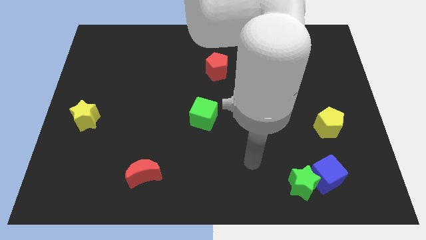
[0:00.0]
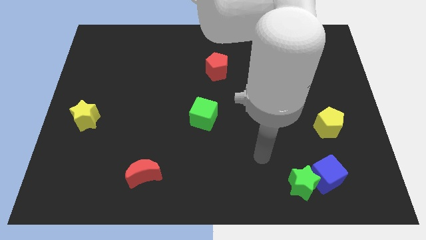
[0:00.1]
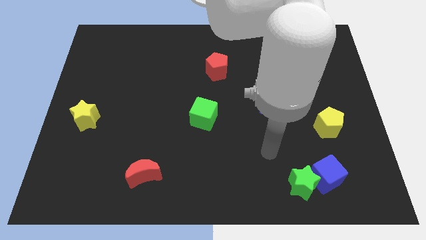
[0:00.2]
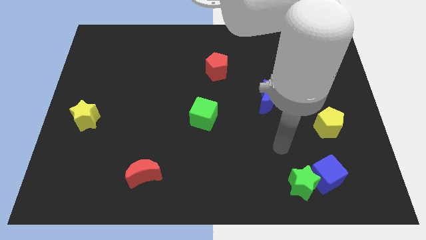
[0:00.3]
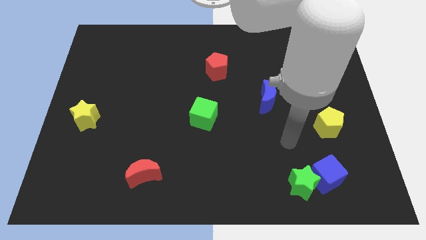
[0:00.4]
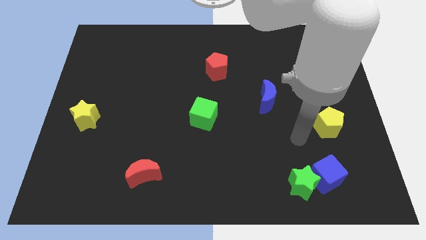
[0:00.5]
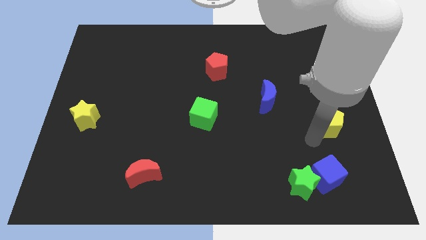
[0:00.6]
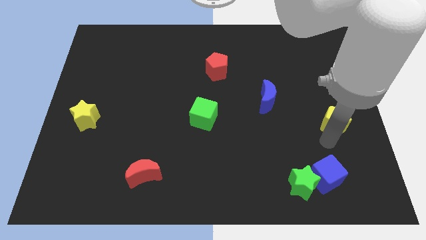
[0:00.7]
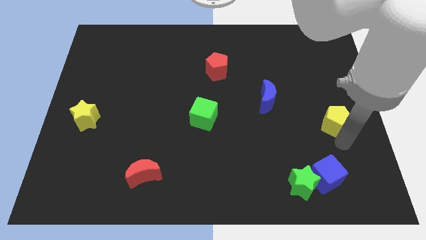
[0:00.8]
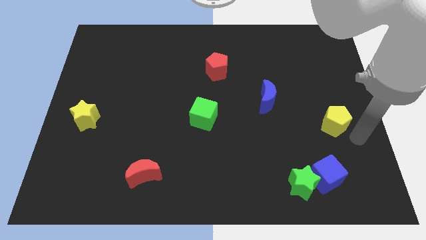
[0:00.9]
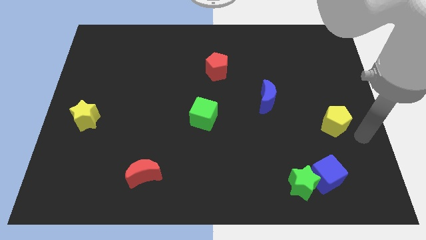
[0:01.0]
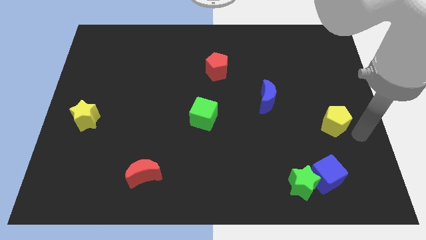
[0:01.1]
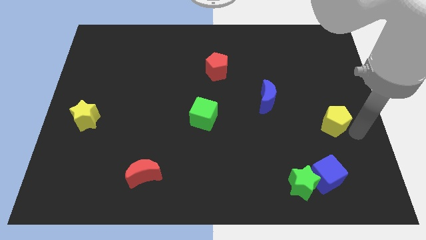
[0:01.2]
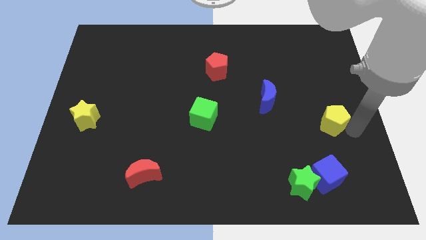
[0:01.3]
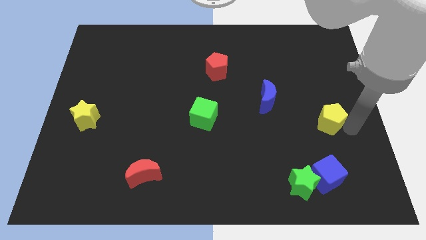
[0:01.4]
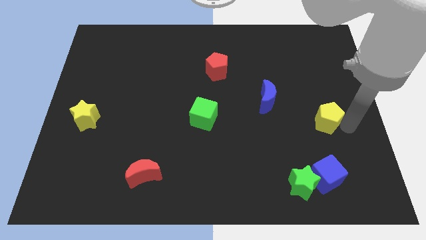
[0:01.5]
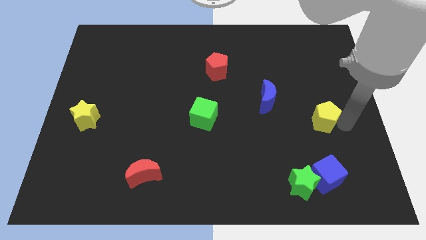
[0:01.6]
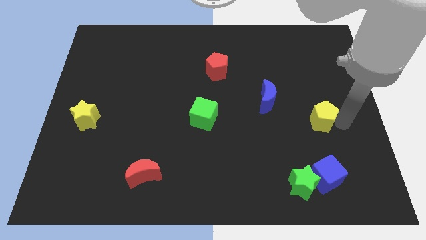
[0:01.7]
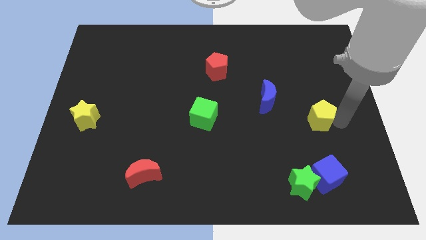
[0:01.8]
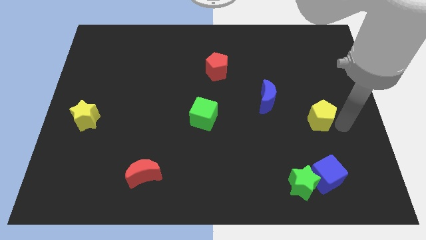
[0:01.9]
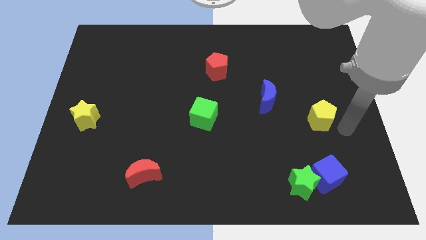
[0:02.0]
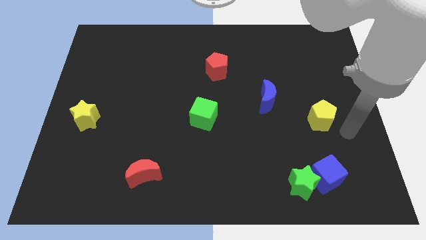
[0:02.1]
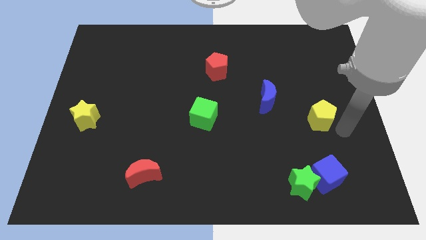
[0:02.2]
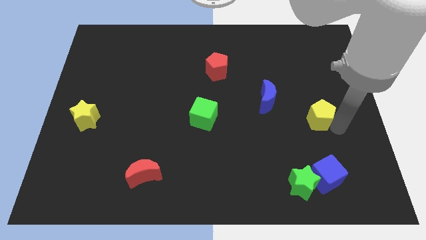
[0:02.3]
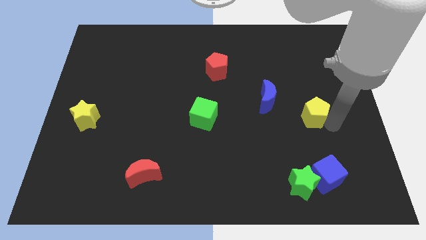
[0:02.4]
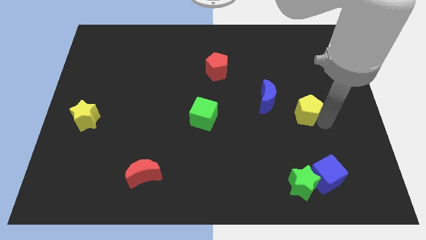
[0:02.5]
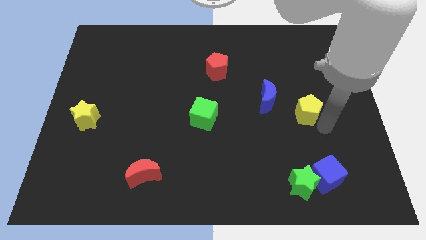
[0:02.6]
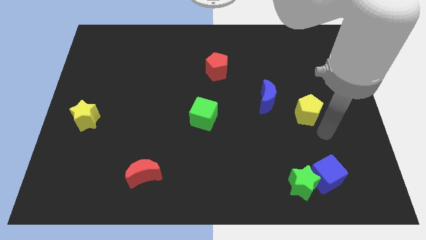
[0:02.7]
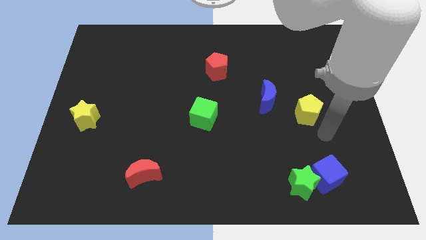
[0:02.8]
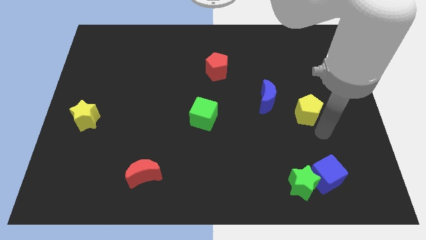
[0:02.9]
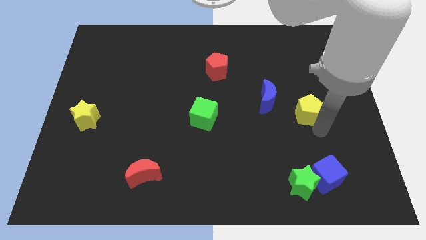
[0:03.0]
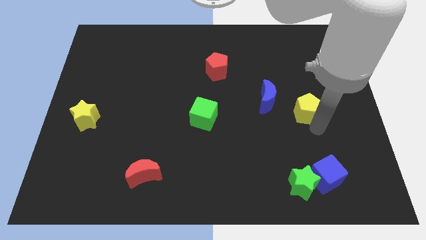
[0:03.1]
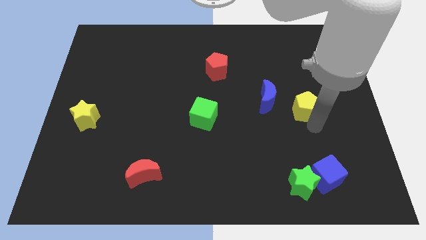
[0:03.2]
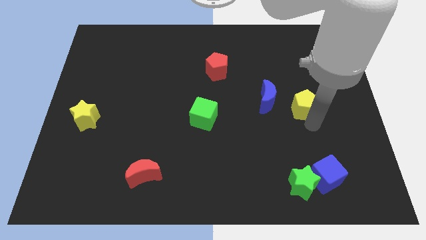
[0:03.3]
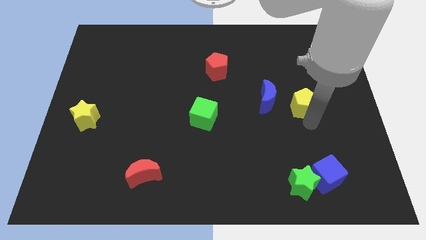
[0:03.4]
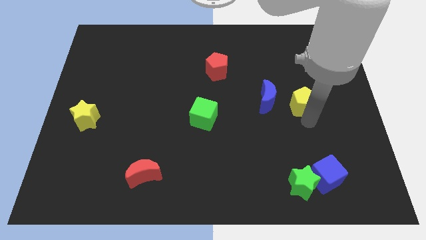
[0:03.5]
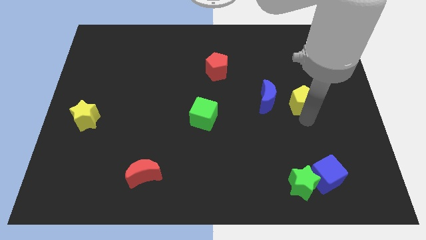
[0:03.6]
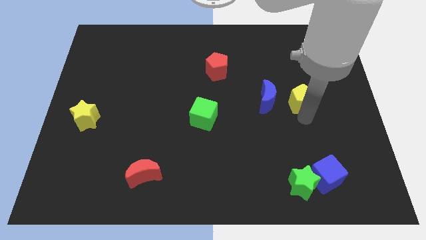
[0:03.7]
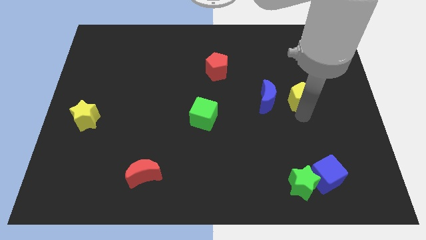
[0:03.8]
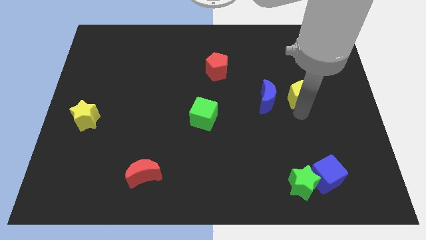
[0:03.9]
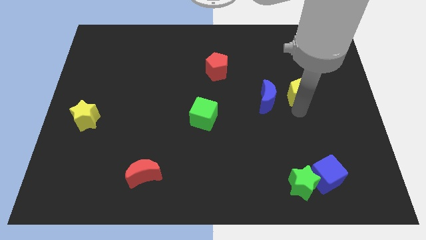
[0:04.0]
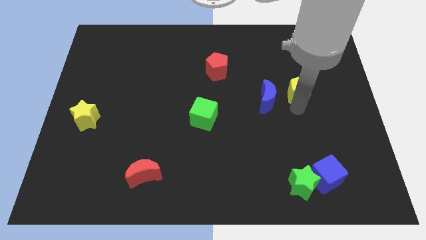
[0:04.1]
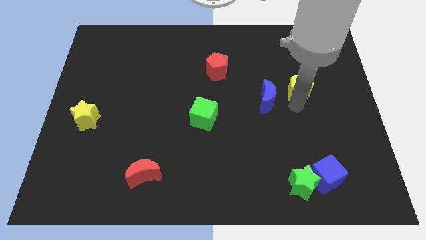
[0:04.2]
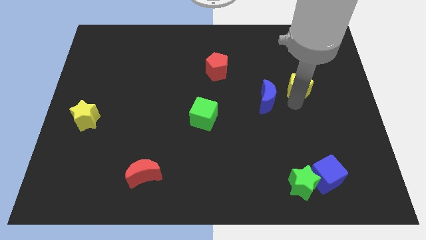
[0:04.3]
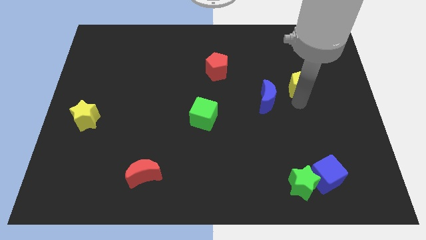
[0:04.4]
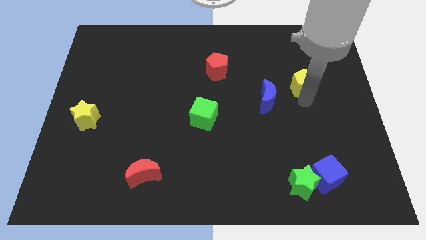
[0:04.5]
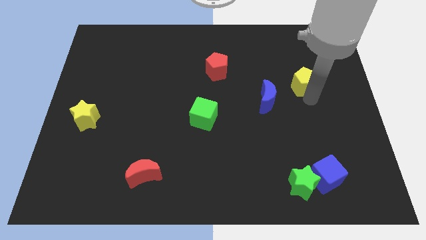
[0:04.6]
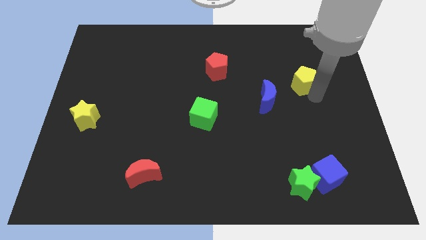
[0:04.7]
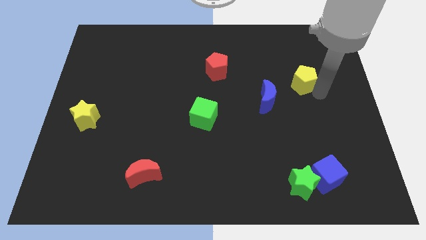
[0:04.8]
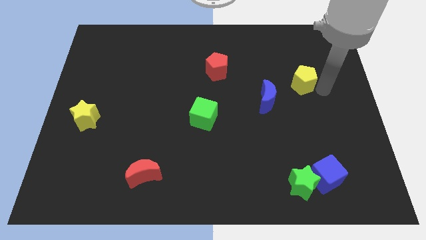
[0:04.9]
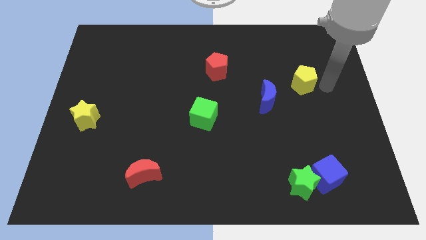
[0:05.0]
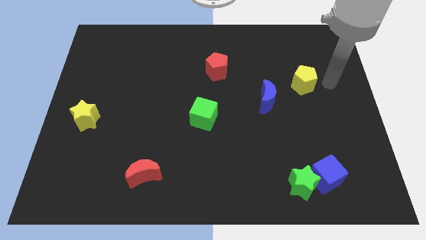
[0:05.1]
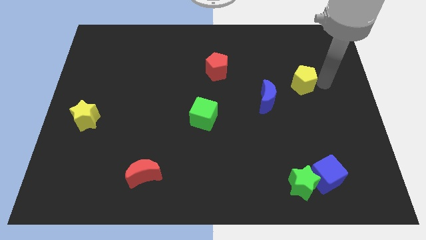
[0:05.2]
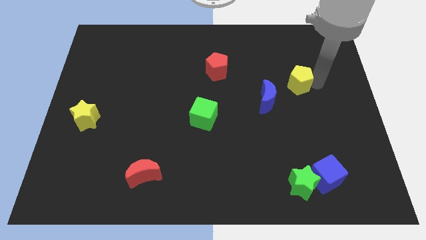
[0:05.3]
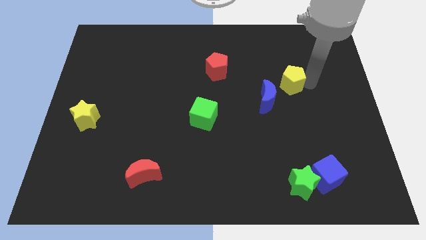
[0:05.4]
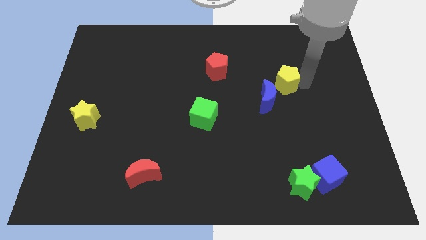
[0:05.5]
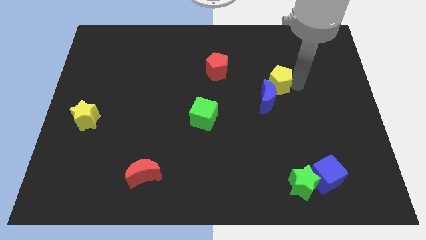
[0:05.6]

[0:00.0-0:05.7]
push the yellow pentagon to the top side of the blue moon

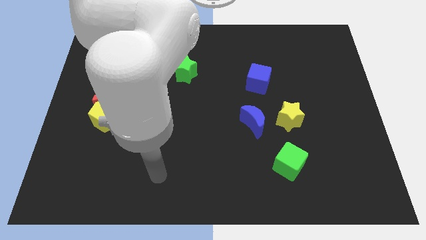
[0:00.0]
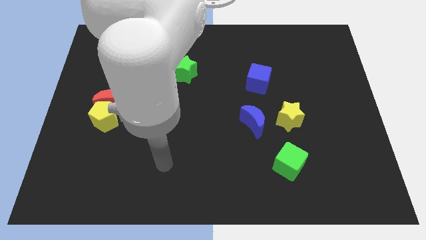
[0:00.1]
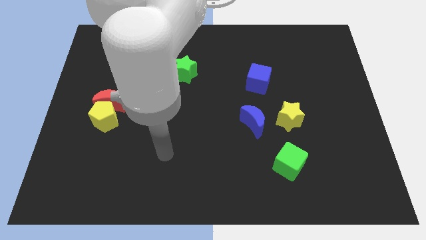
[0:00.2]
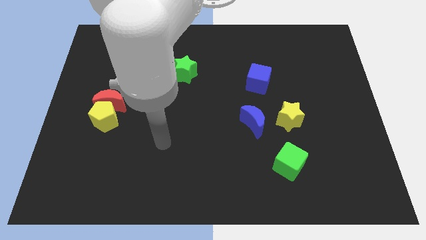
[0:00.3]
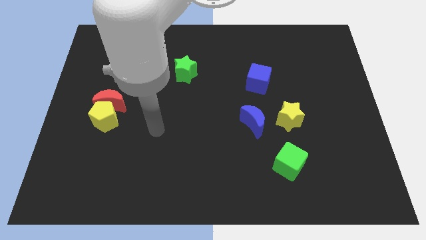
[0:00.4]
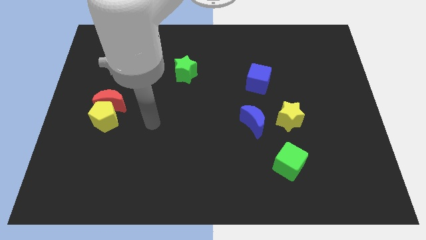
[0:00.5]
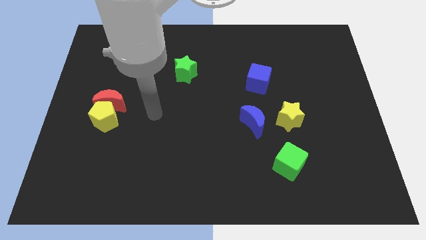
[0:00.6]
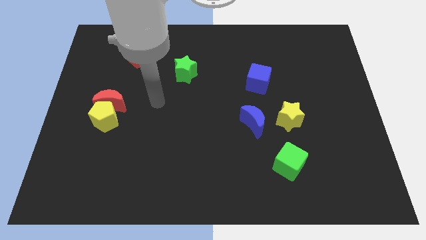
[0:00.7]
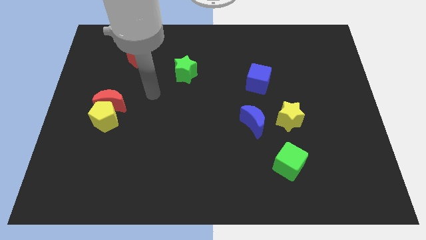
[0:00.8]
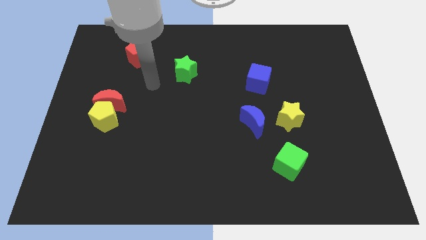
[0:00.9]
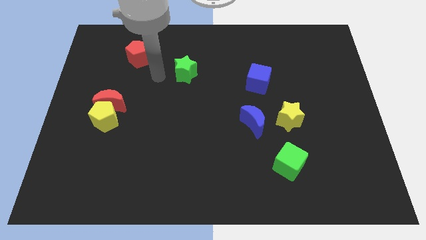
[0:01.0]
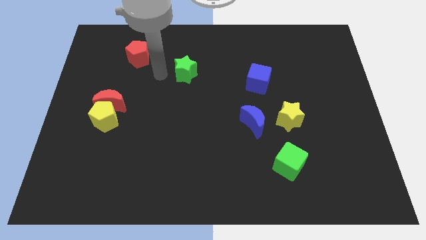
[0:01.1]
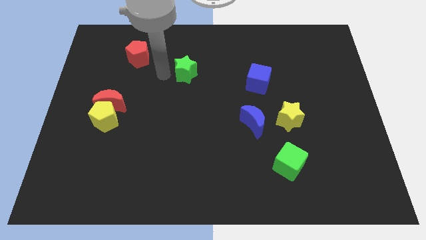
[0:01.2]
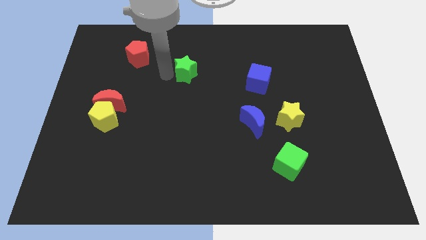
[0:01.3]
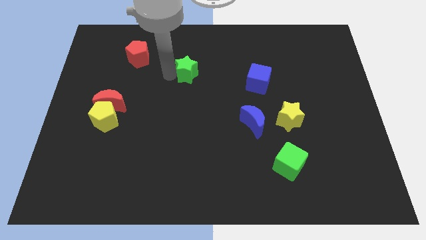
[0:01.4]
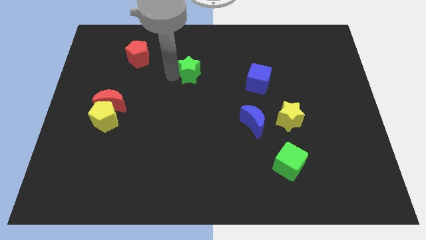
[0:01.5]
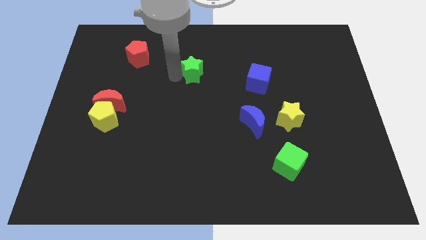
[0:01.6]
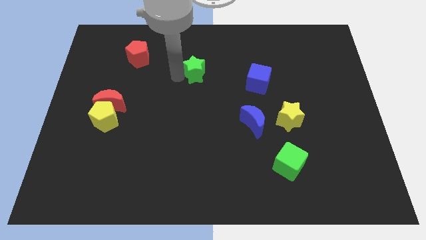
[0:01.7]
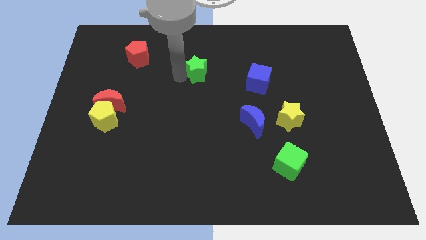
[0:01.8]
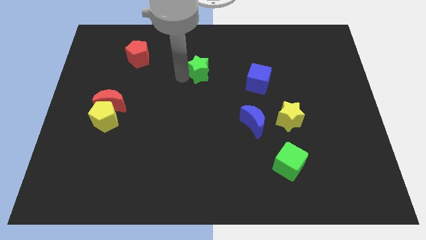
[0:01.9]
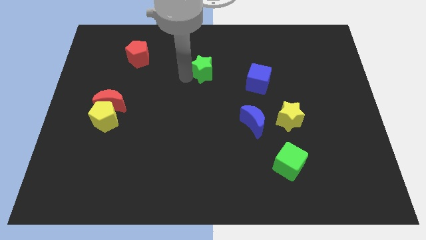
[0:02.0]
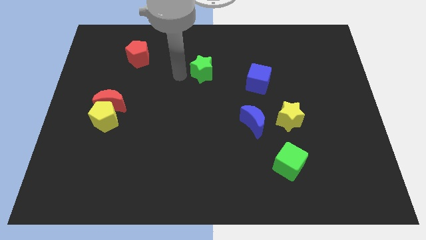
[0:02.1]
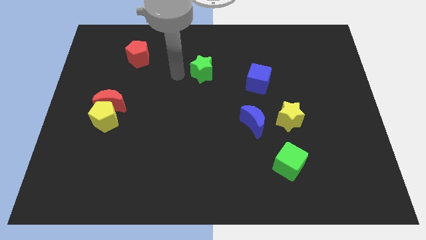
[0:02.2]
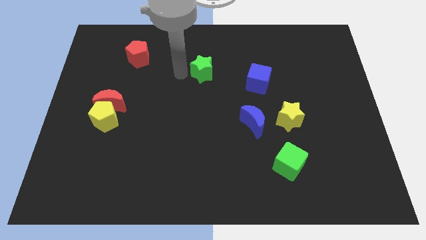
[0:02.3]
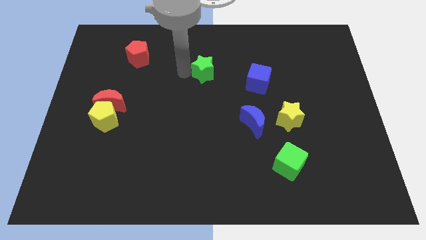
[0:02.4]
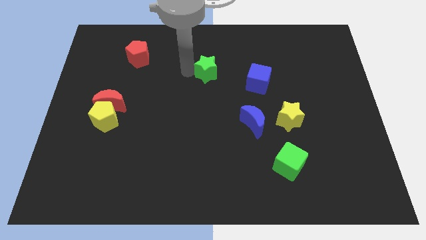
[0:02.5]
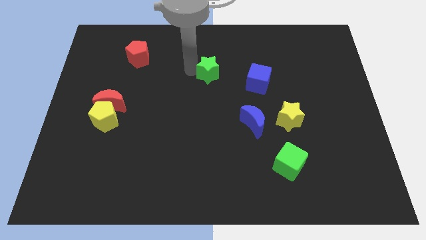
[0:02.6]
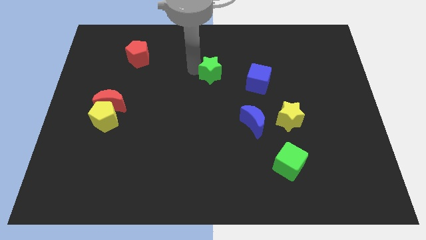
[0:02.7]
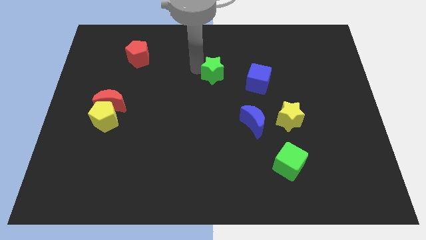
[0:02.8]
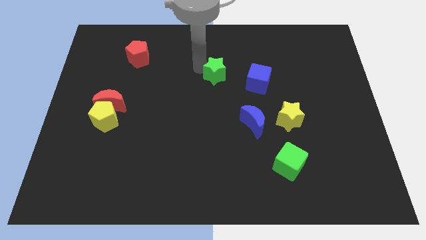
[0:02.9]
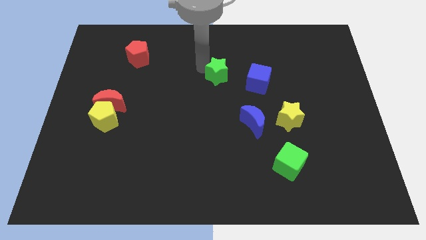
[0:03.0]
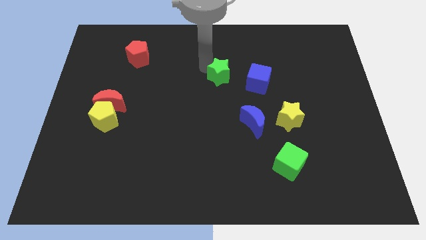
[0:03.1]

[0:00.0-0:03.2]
push the green star diagonally up and to the left of the blue cube
